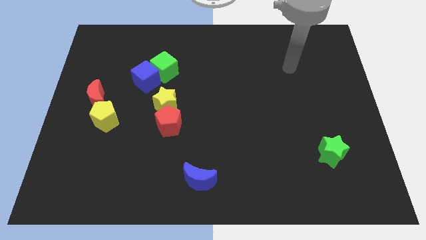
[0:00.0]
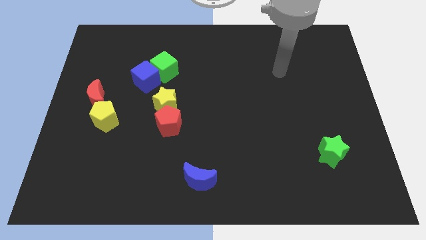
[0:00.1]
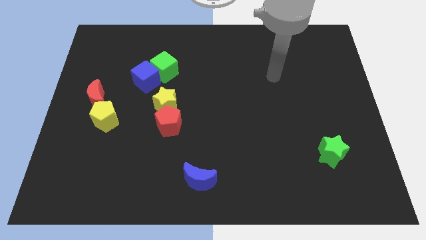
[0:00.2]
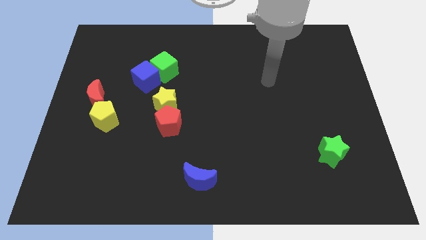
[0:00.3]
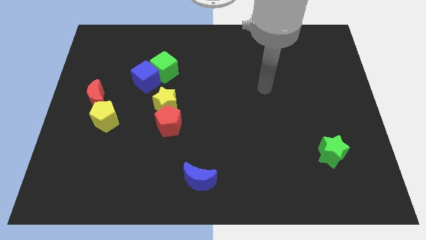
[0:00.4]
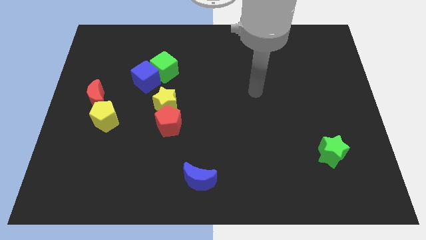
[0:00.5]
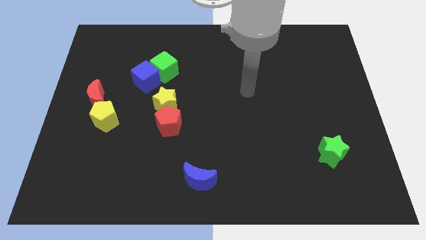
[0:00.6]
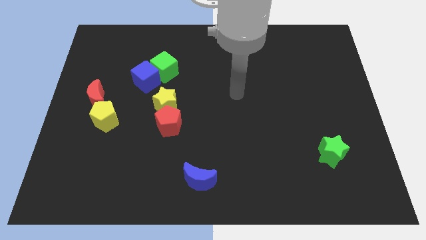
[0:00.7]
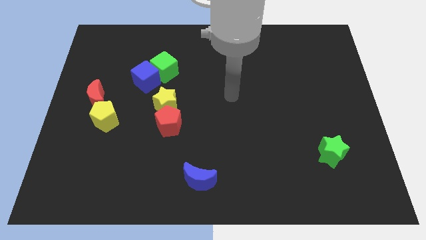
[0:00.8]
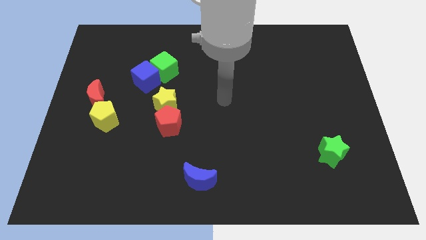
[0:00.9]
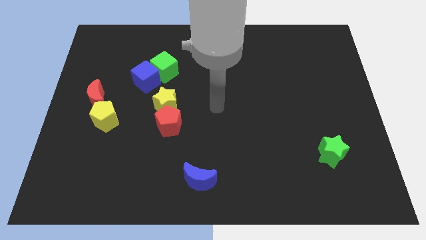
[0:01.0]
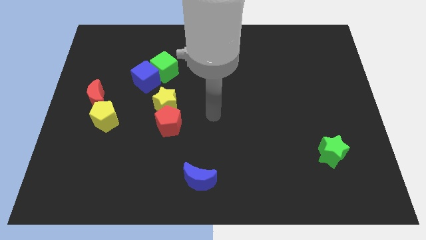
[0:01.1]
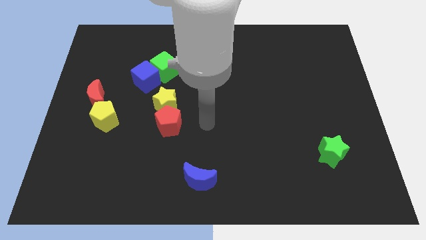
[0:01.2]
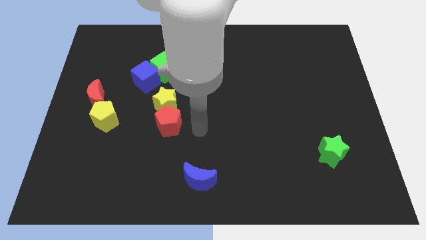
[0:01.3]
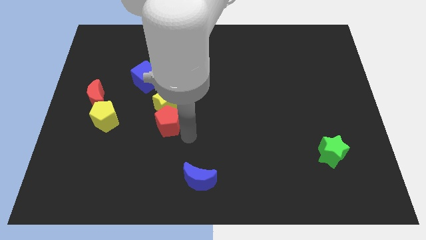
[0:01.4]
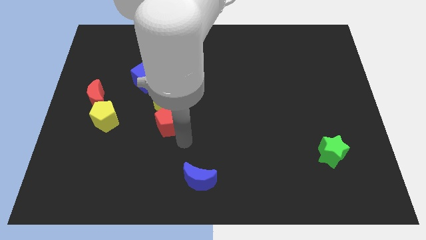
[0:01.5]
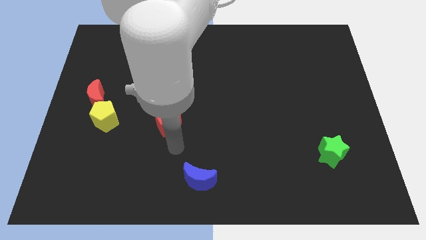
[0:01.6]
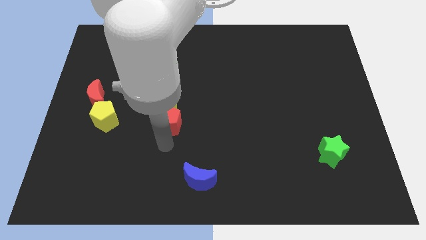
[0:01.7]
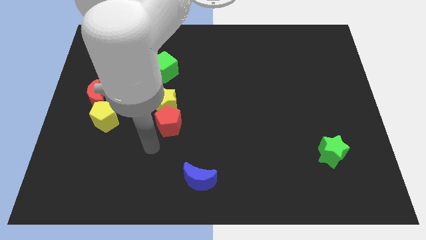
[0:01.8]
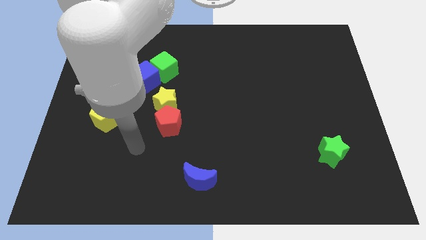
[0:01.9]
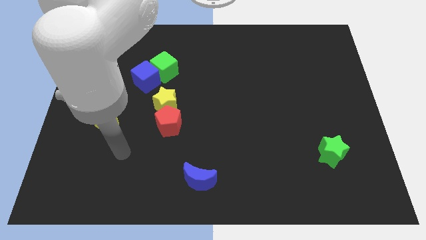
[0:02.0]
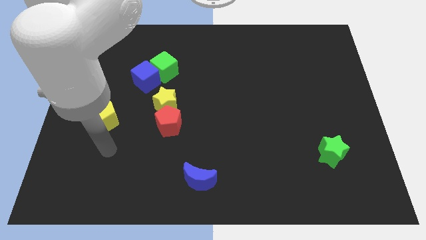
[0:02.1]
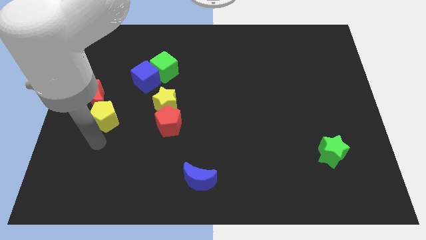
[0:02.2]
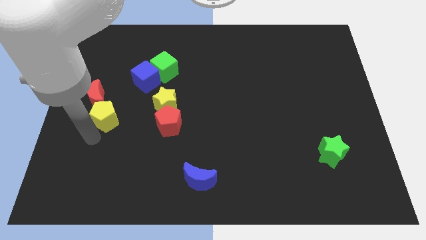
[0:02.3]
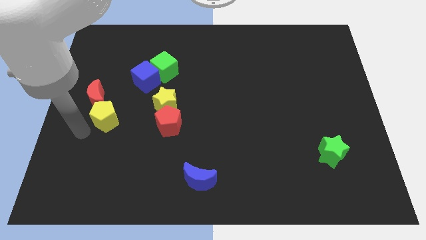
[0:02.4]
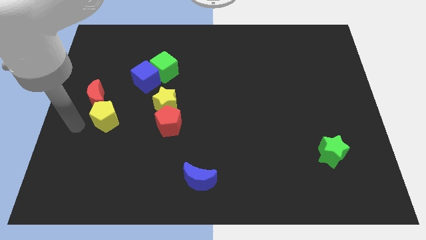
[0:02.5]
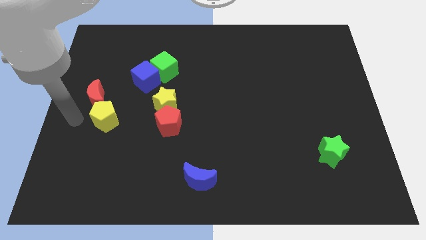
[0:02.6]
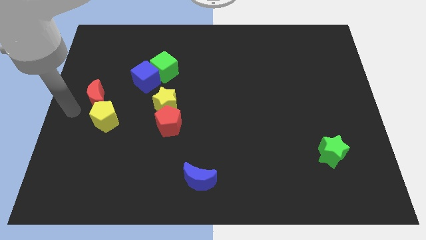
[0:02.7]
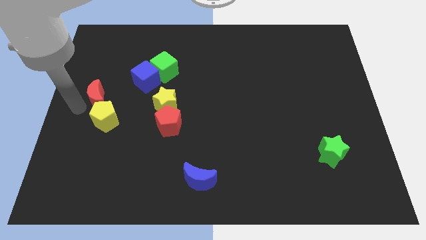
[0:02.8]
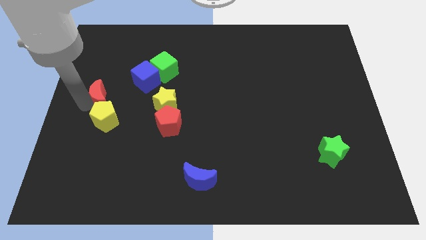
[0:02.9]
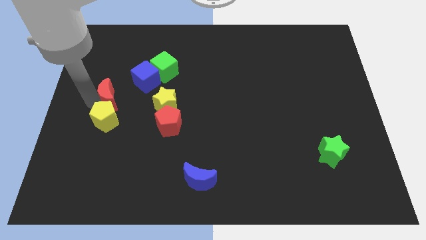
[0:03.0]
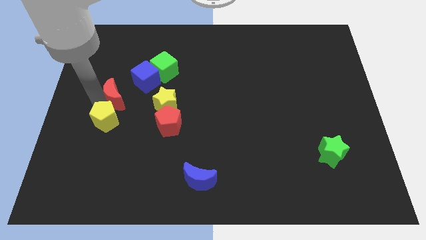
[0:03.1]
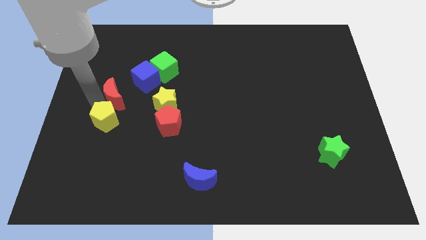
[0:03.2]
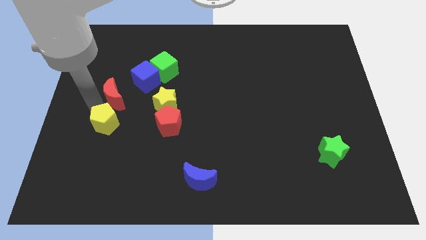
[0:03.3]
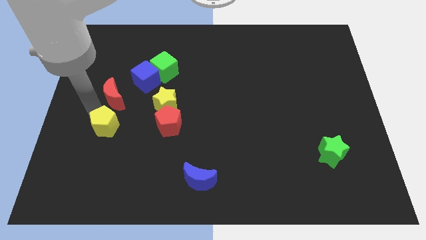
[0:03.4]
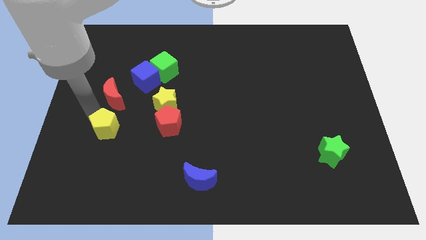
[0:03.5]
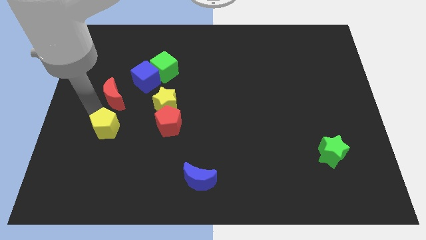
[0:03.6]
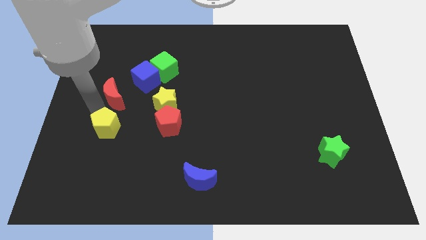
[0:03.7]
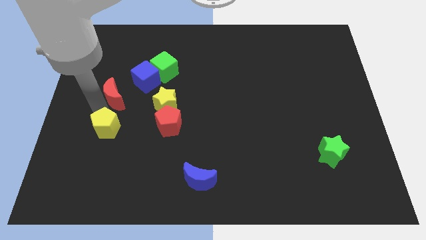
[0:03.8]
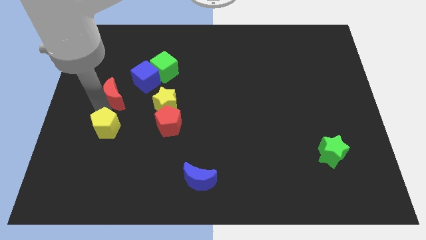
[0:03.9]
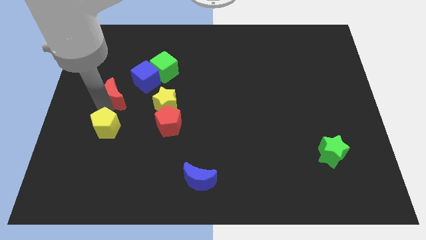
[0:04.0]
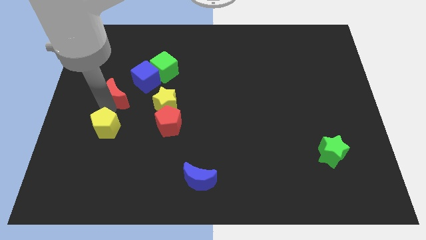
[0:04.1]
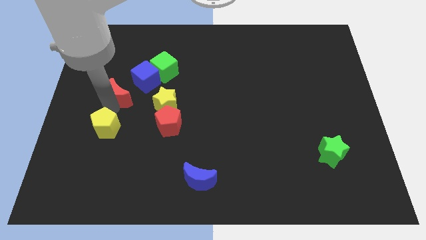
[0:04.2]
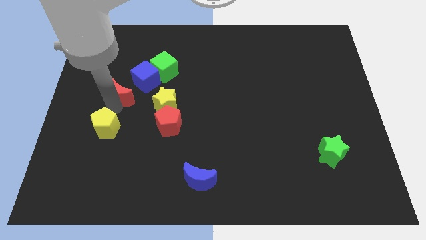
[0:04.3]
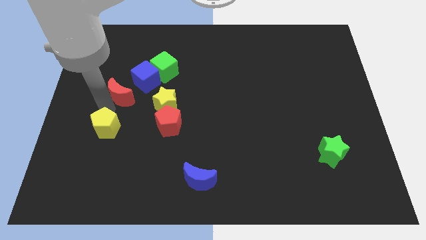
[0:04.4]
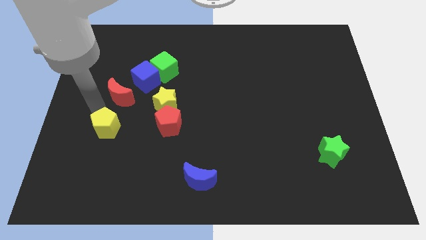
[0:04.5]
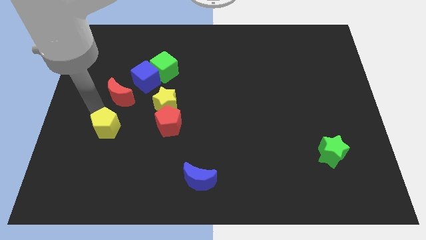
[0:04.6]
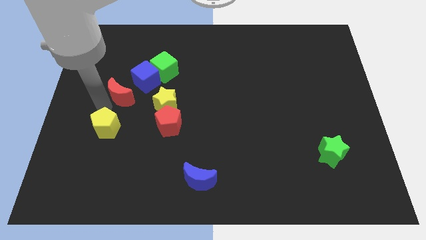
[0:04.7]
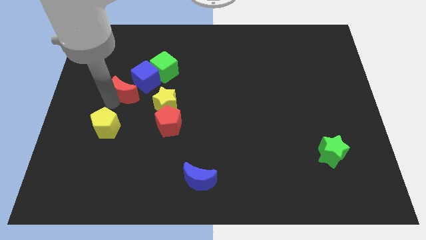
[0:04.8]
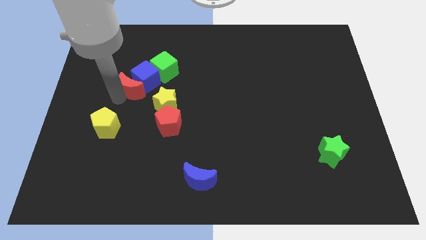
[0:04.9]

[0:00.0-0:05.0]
put the red moon next to the blue cube

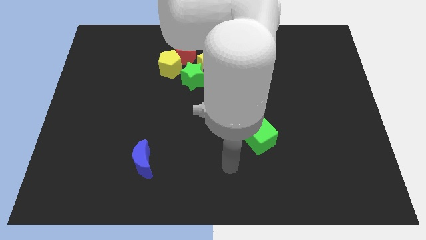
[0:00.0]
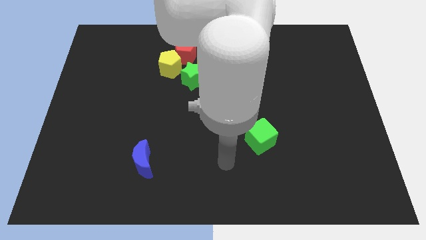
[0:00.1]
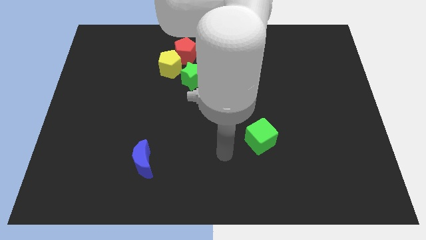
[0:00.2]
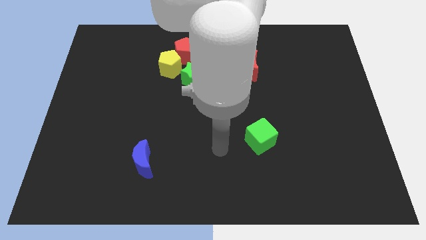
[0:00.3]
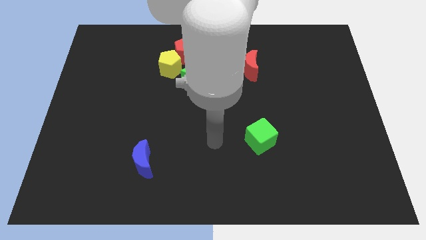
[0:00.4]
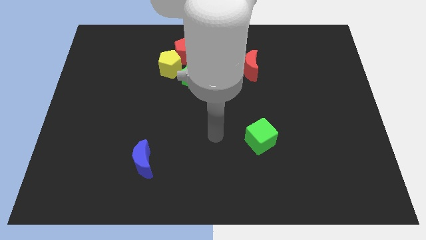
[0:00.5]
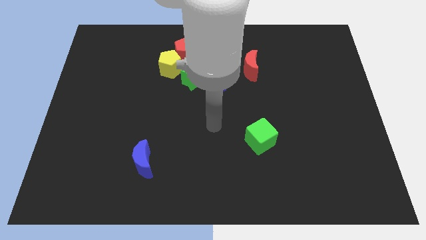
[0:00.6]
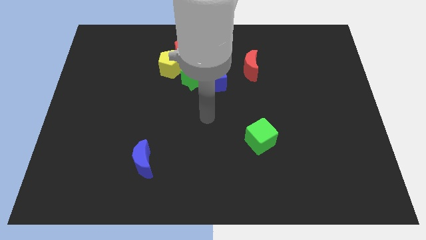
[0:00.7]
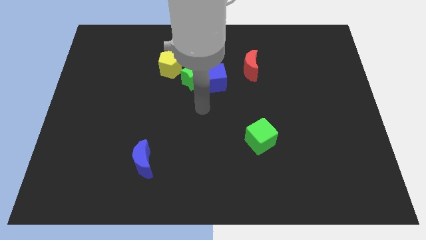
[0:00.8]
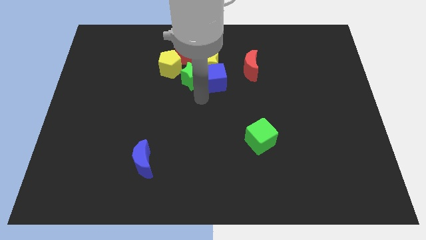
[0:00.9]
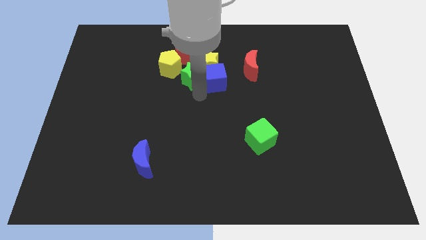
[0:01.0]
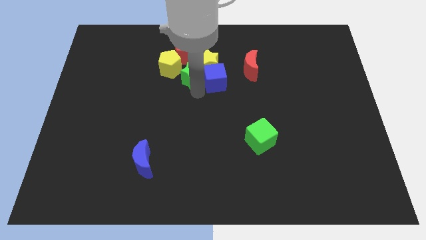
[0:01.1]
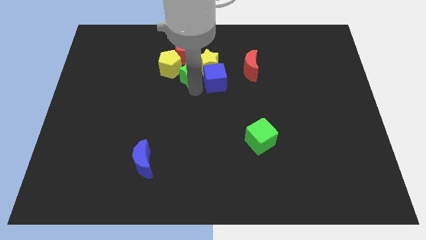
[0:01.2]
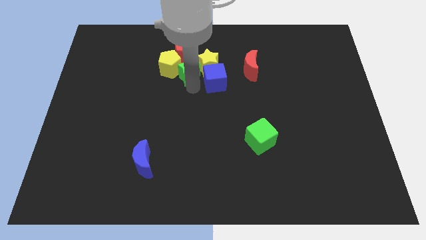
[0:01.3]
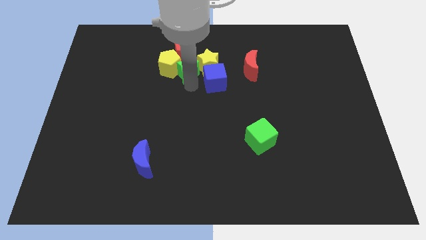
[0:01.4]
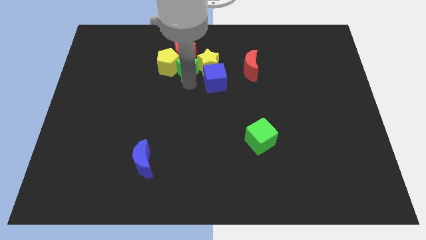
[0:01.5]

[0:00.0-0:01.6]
push the green star next to the red pentagon

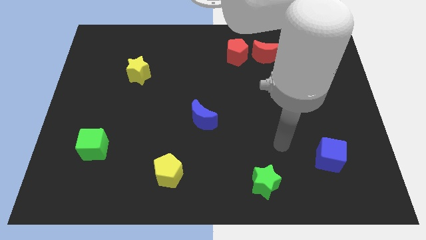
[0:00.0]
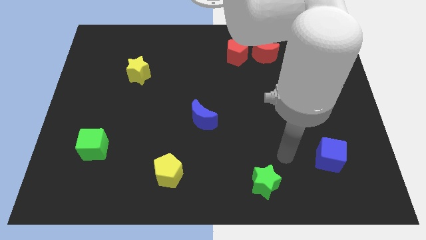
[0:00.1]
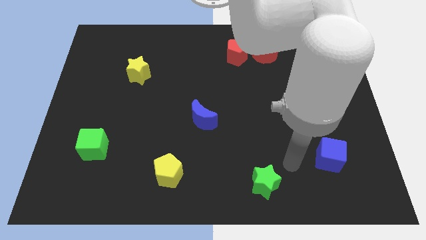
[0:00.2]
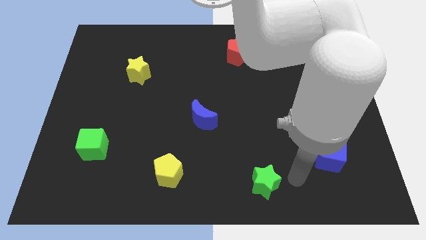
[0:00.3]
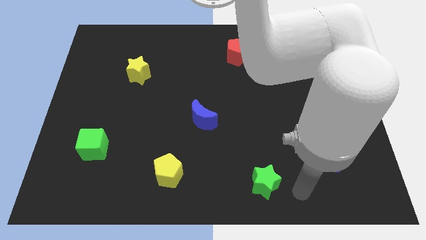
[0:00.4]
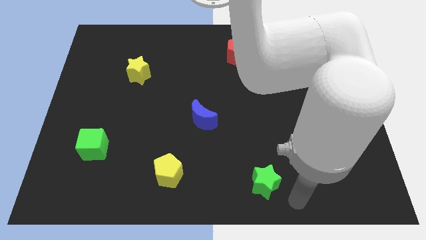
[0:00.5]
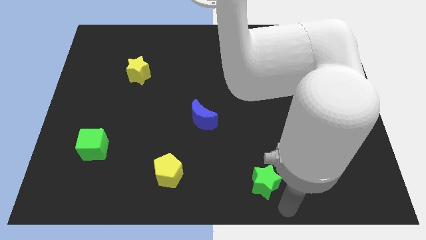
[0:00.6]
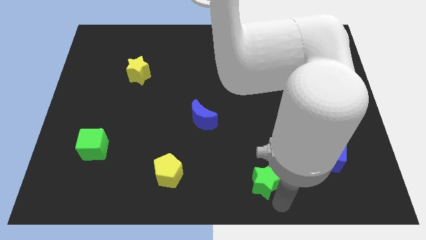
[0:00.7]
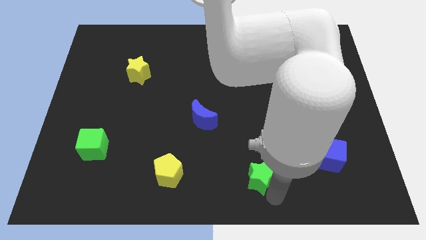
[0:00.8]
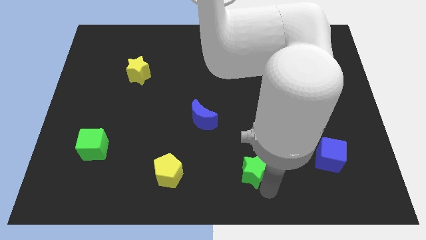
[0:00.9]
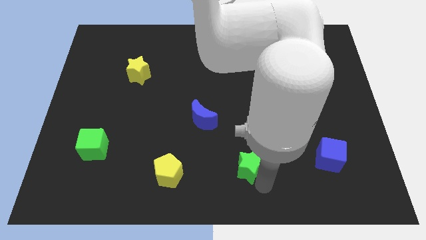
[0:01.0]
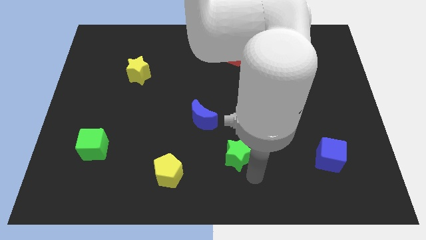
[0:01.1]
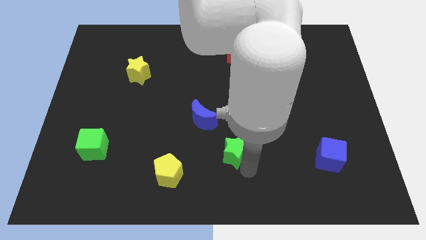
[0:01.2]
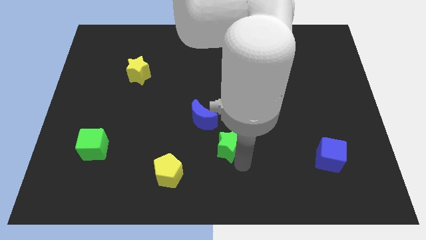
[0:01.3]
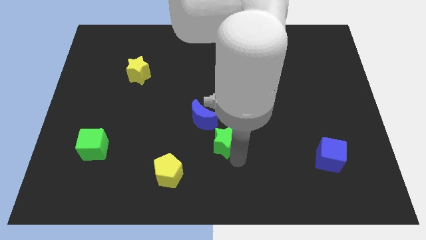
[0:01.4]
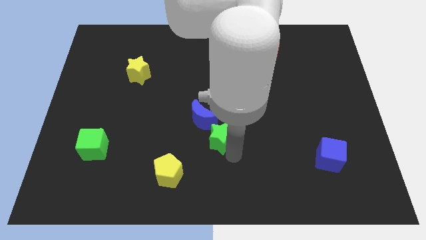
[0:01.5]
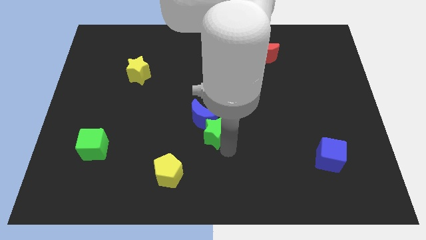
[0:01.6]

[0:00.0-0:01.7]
move the green star to the blue moon

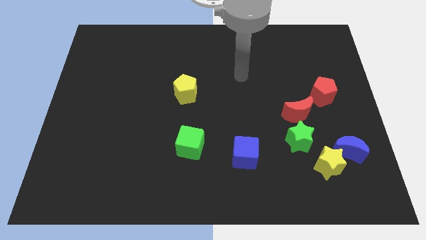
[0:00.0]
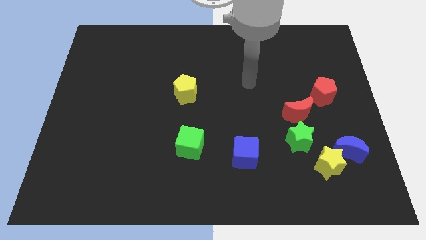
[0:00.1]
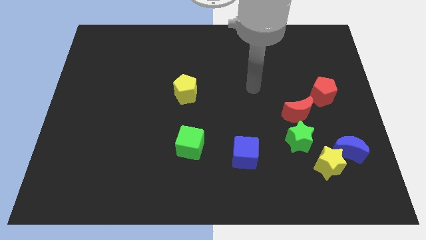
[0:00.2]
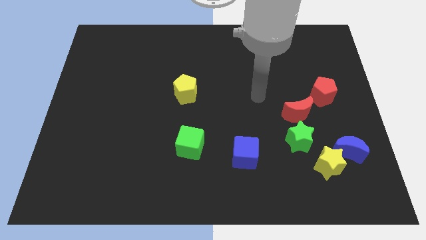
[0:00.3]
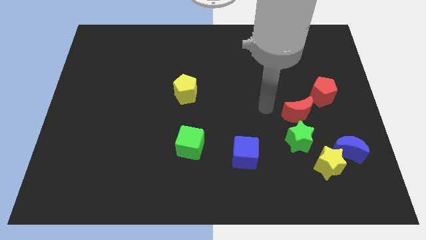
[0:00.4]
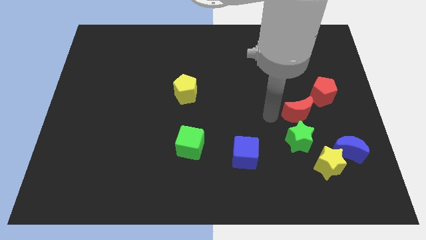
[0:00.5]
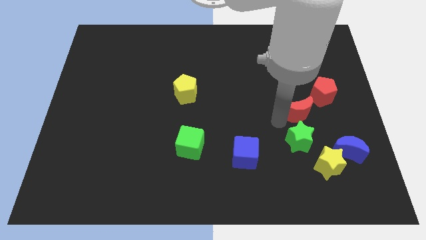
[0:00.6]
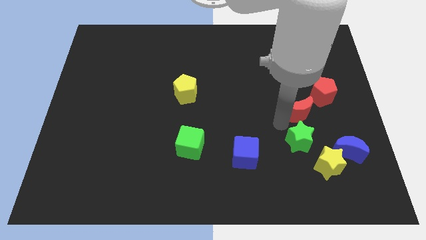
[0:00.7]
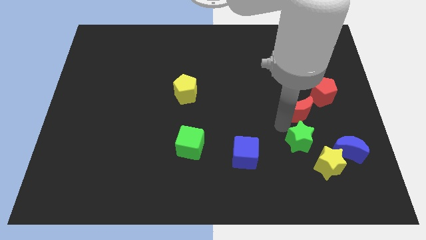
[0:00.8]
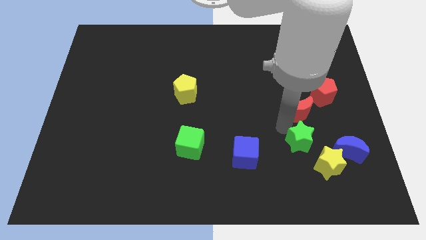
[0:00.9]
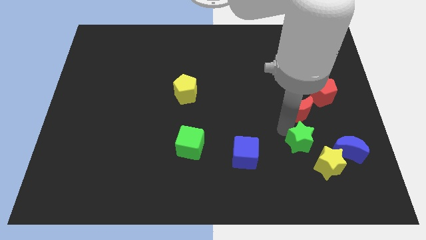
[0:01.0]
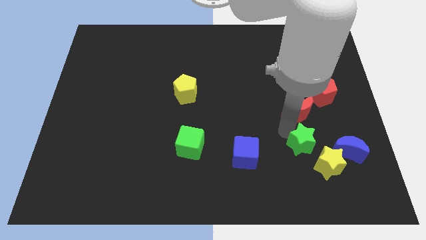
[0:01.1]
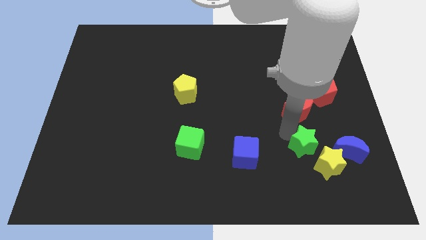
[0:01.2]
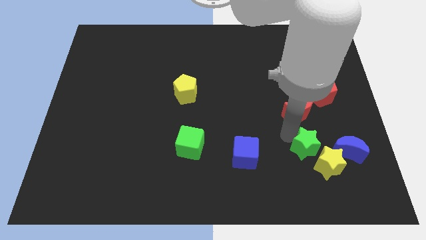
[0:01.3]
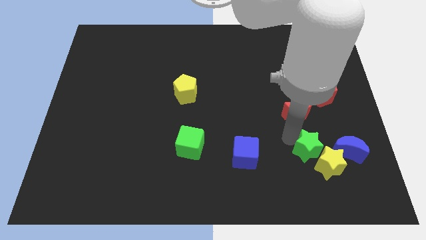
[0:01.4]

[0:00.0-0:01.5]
put the green star towards the yellow star
